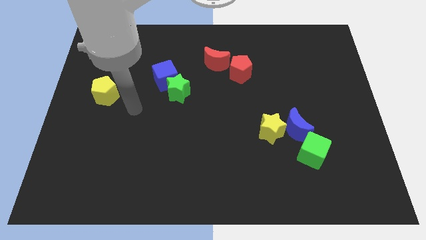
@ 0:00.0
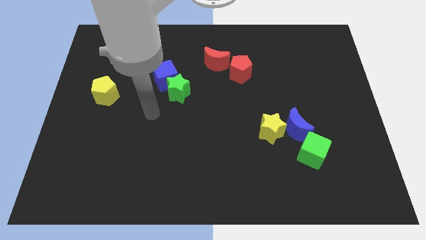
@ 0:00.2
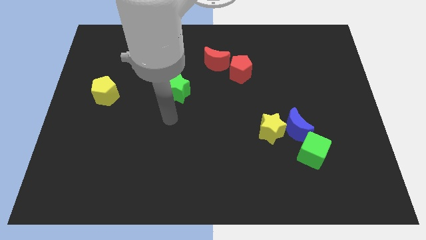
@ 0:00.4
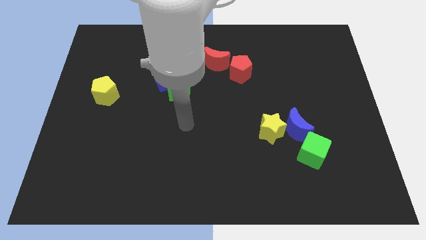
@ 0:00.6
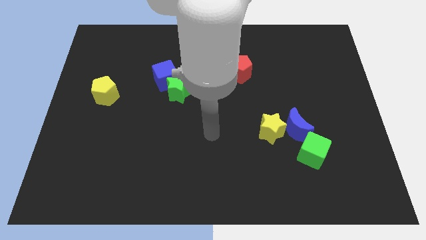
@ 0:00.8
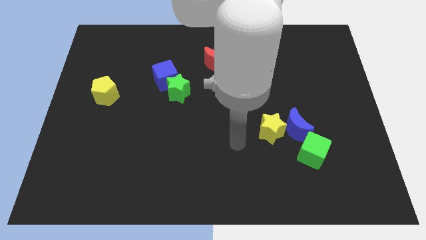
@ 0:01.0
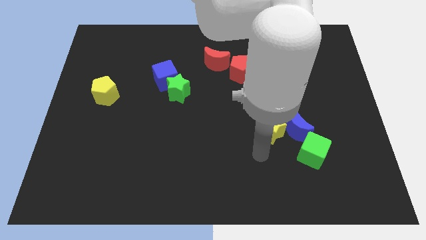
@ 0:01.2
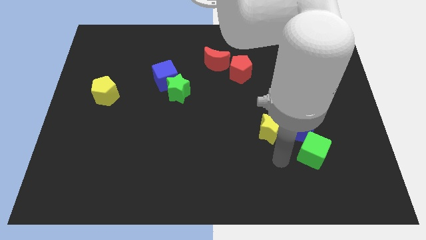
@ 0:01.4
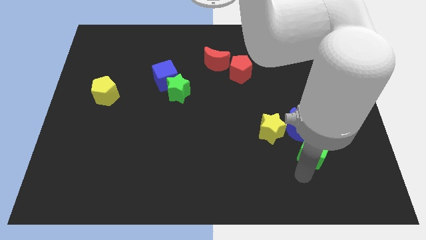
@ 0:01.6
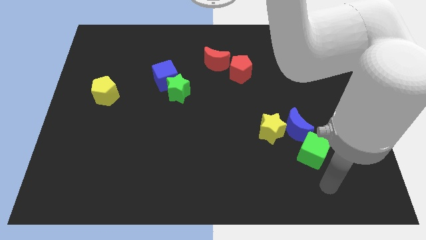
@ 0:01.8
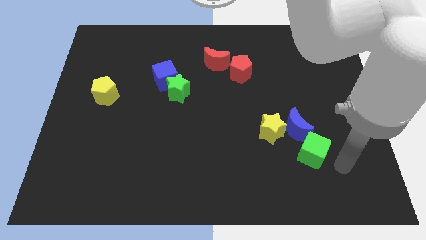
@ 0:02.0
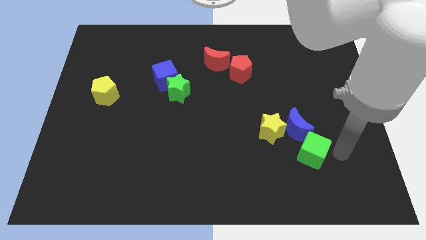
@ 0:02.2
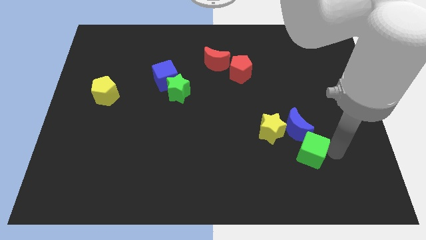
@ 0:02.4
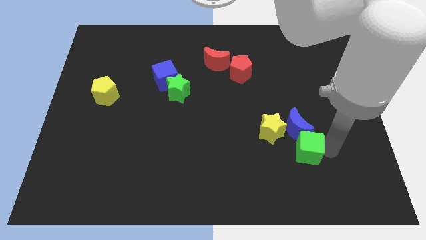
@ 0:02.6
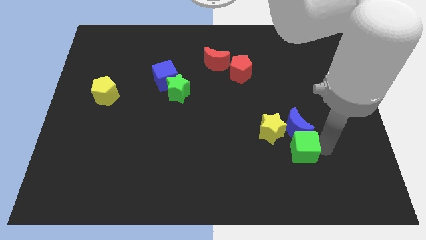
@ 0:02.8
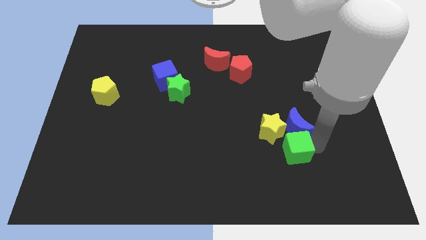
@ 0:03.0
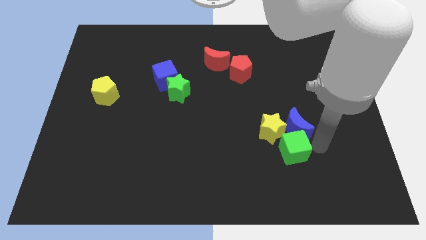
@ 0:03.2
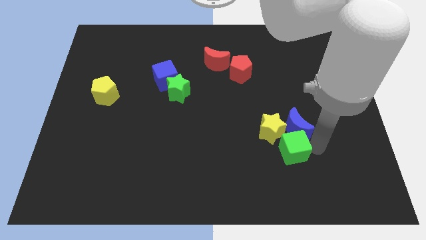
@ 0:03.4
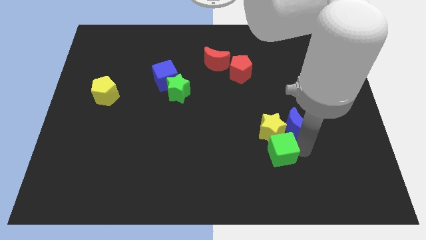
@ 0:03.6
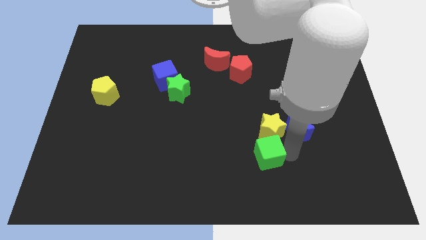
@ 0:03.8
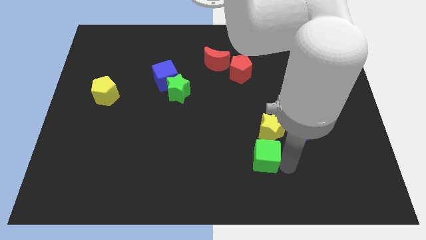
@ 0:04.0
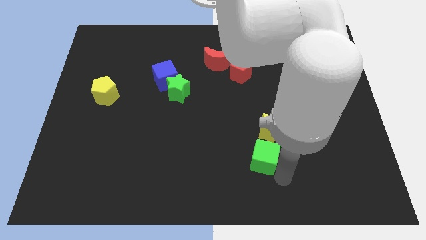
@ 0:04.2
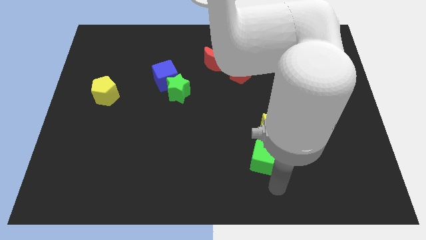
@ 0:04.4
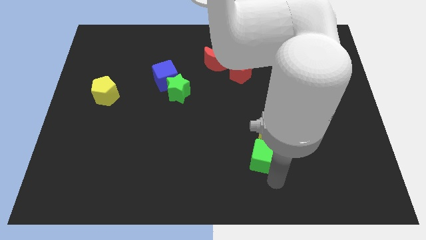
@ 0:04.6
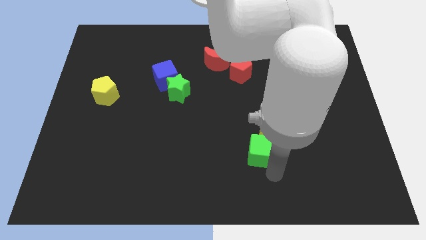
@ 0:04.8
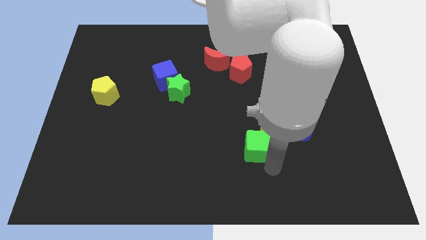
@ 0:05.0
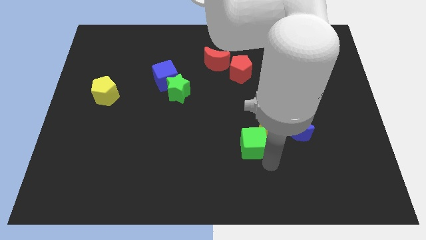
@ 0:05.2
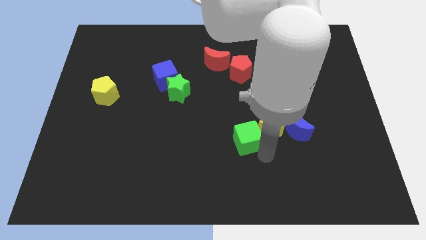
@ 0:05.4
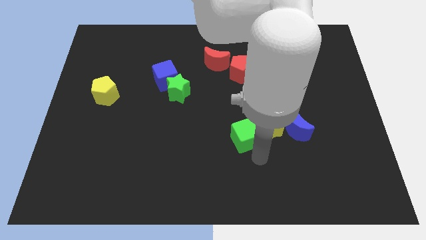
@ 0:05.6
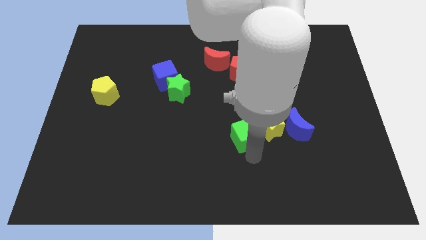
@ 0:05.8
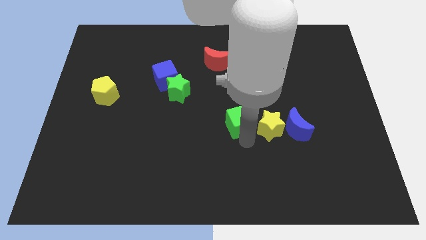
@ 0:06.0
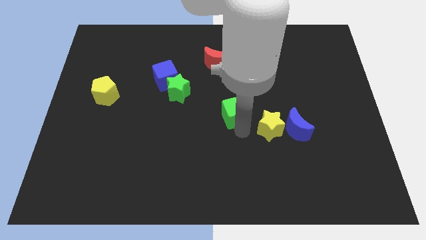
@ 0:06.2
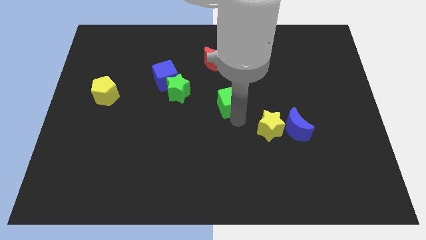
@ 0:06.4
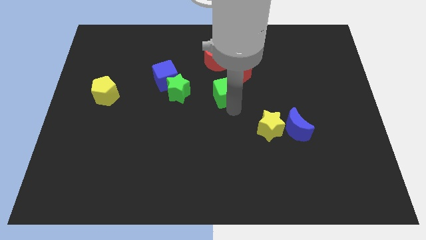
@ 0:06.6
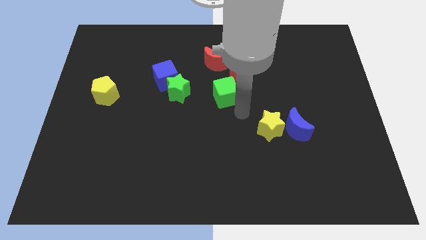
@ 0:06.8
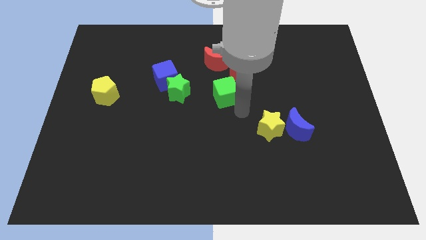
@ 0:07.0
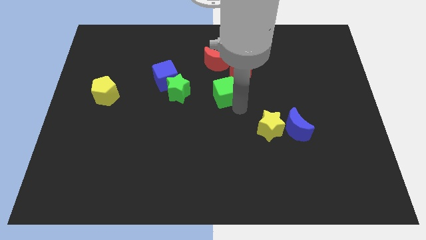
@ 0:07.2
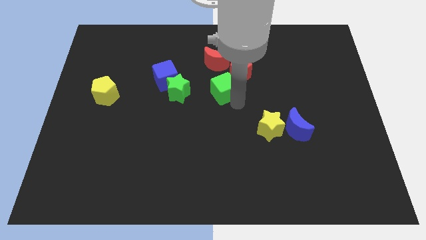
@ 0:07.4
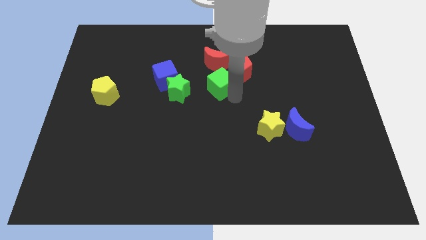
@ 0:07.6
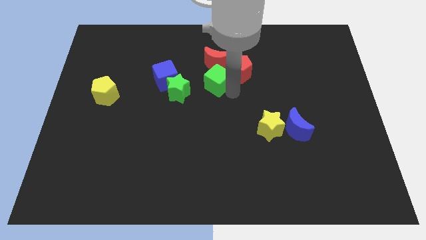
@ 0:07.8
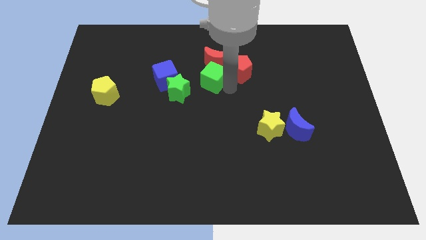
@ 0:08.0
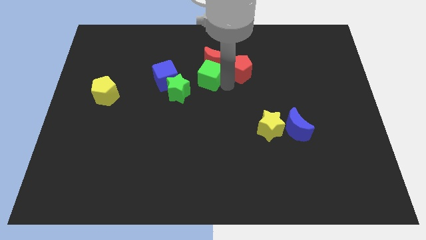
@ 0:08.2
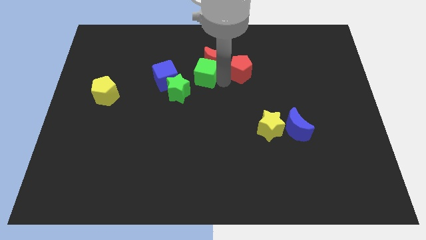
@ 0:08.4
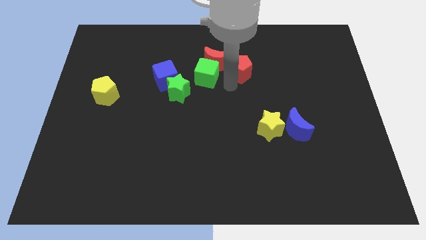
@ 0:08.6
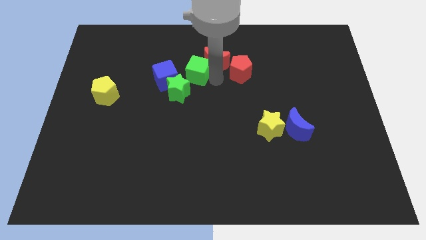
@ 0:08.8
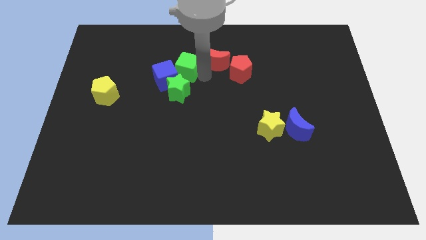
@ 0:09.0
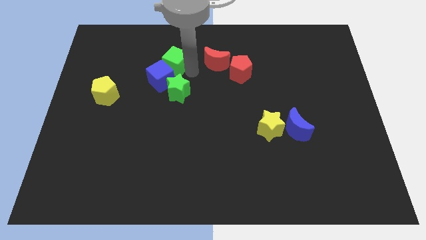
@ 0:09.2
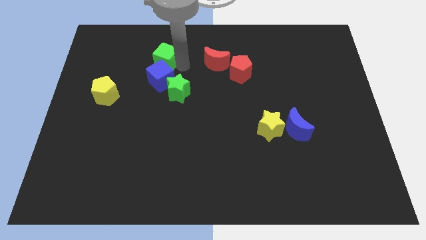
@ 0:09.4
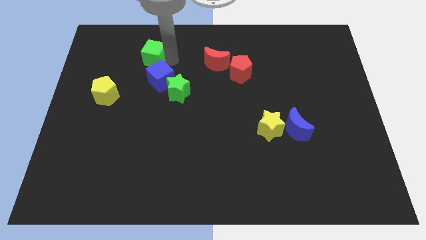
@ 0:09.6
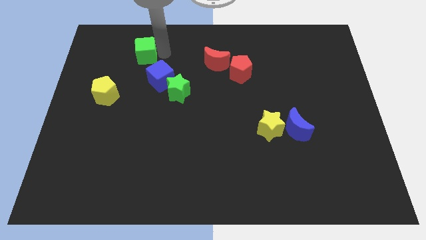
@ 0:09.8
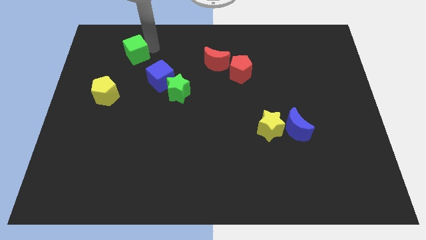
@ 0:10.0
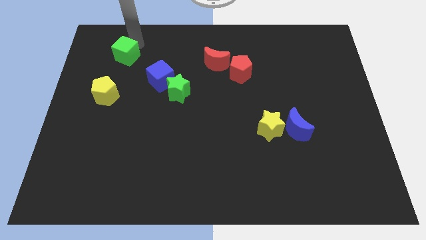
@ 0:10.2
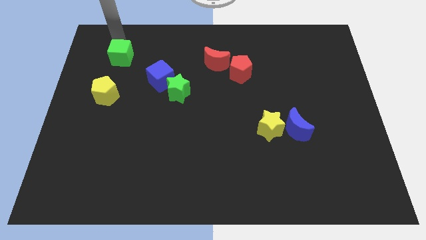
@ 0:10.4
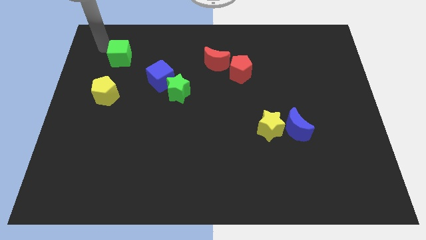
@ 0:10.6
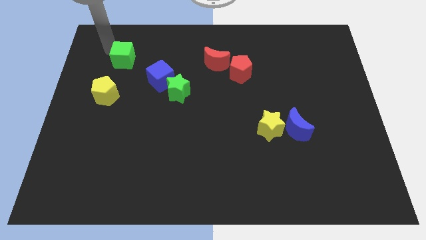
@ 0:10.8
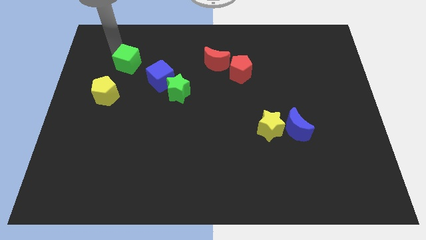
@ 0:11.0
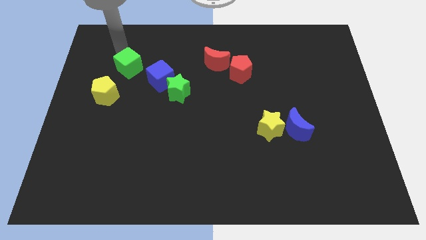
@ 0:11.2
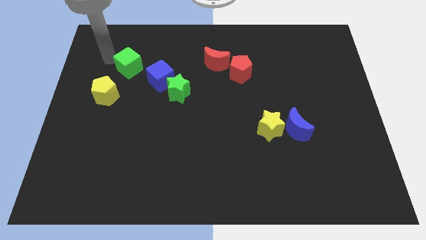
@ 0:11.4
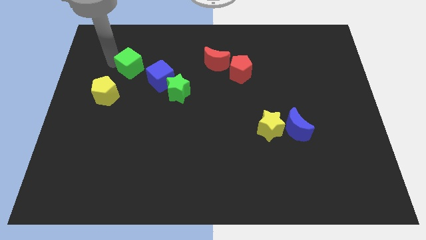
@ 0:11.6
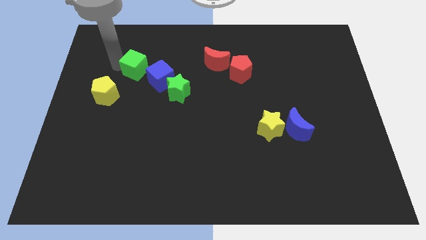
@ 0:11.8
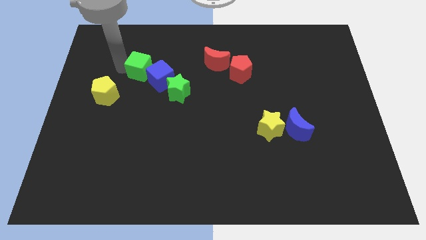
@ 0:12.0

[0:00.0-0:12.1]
move the green cube to the top left of the green star
